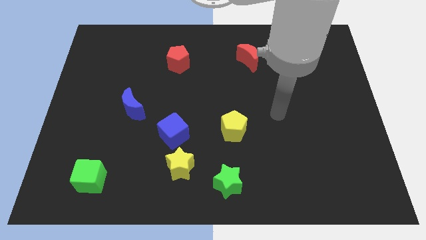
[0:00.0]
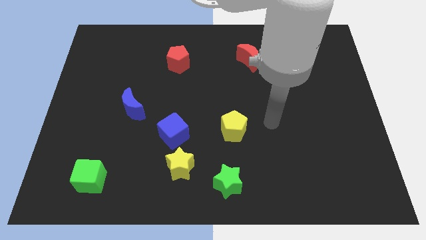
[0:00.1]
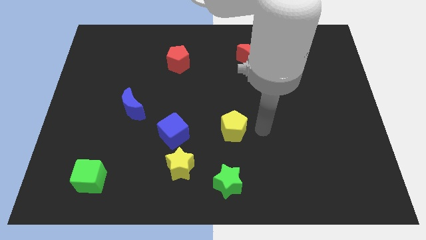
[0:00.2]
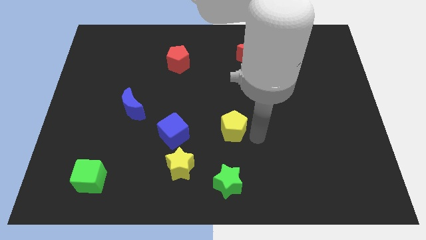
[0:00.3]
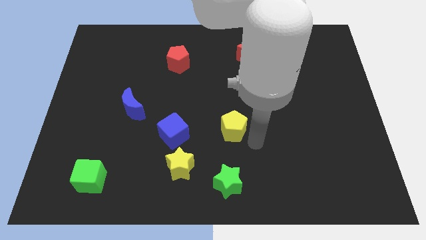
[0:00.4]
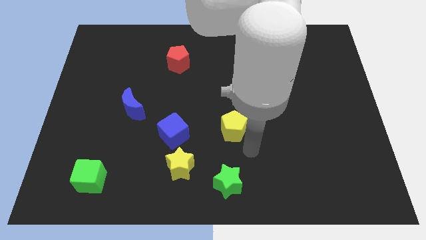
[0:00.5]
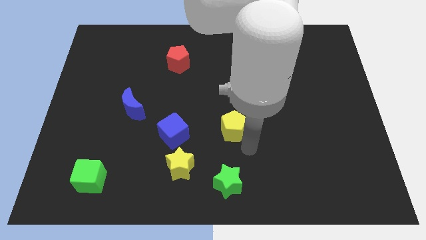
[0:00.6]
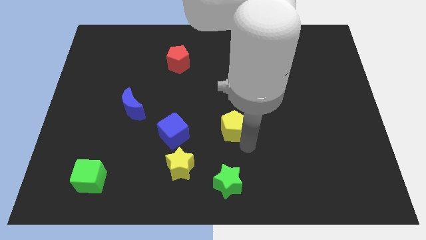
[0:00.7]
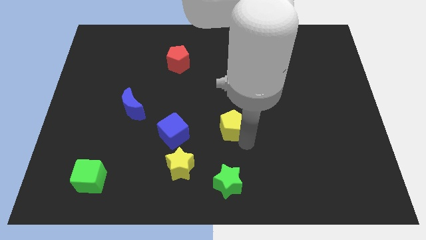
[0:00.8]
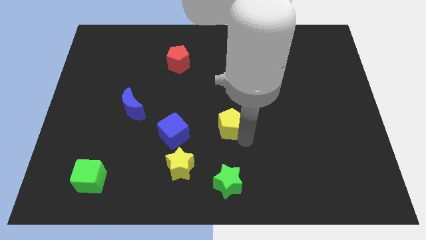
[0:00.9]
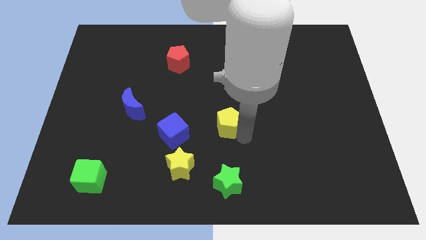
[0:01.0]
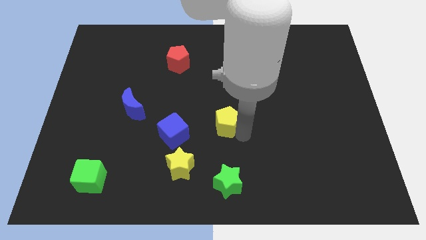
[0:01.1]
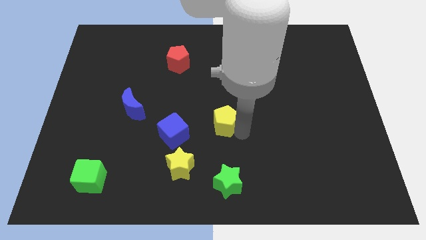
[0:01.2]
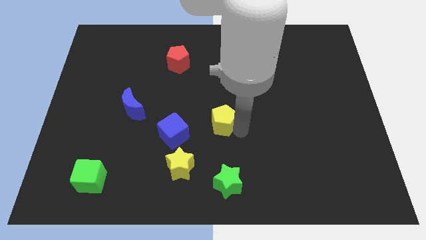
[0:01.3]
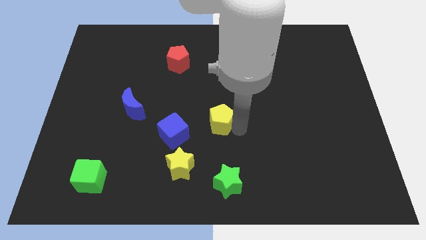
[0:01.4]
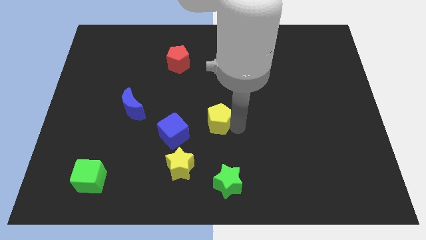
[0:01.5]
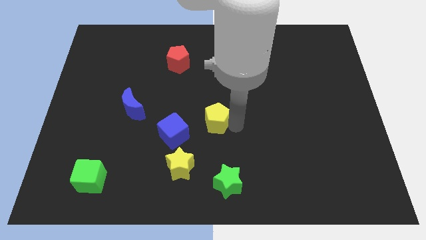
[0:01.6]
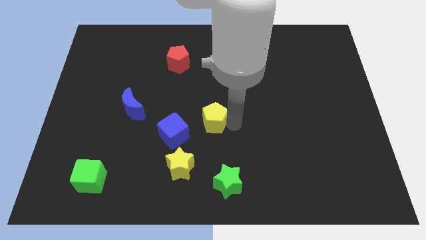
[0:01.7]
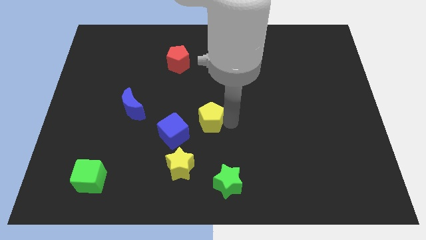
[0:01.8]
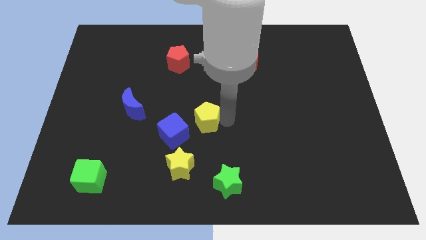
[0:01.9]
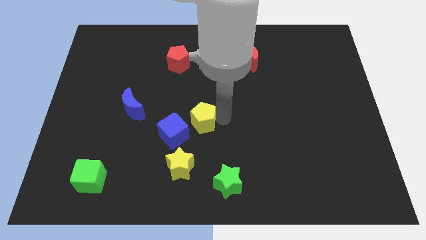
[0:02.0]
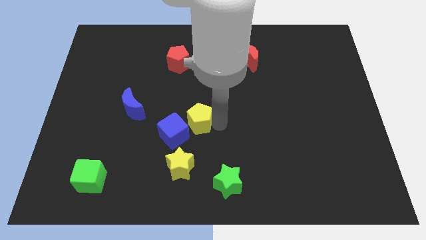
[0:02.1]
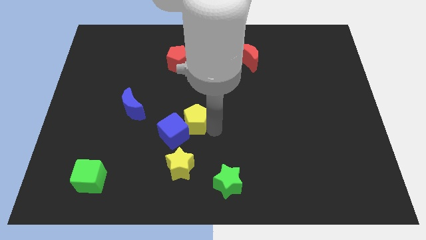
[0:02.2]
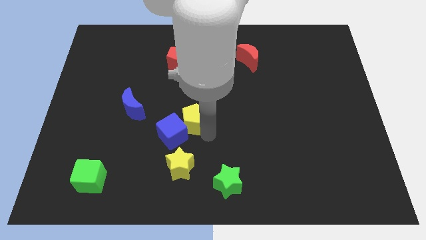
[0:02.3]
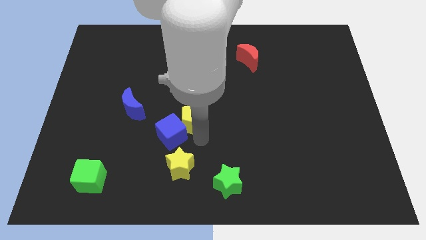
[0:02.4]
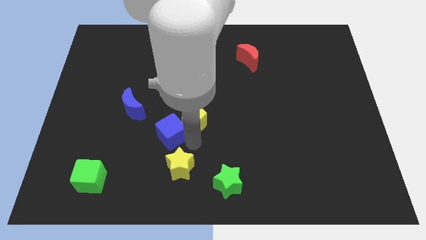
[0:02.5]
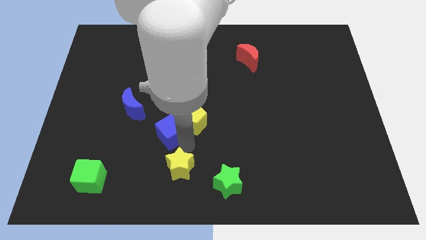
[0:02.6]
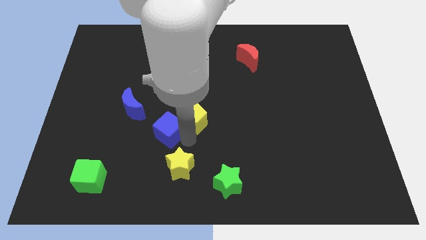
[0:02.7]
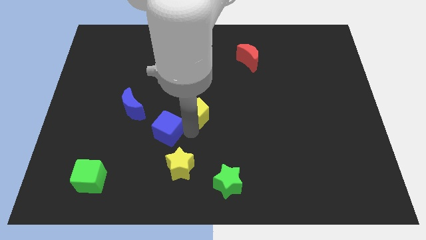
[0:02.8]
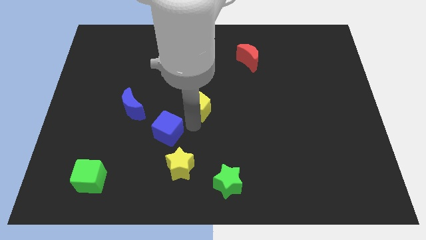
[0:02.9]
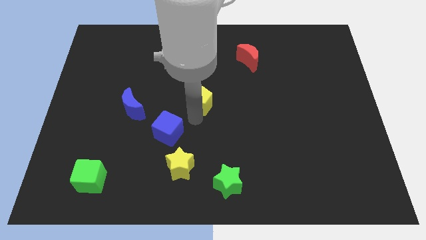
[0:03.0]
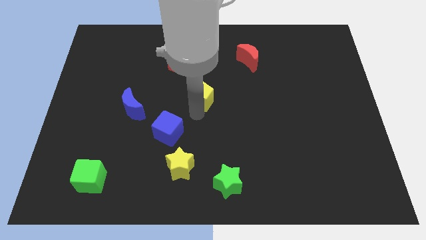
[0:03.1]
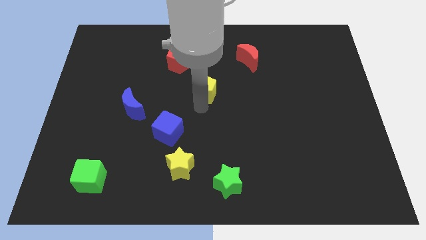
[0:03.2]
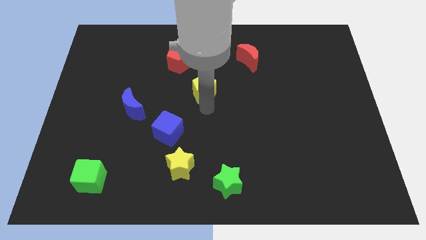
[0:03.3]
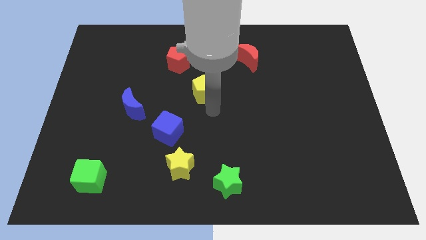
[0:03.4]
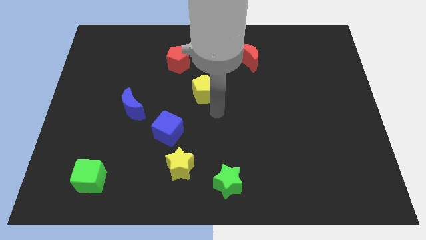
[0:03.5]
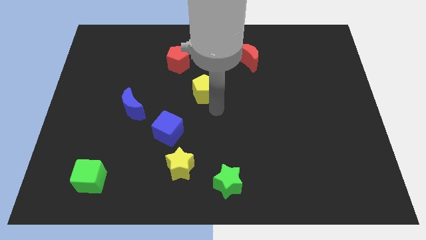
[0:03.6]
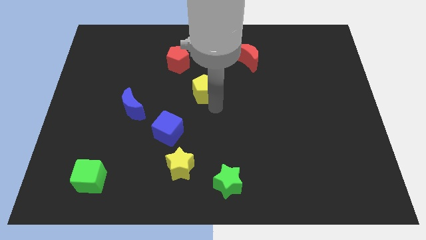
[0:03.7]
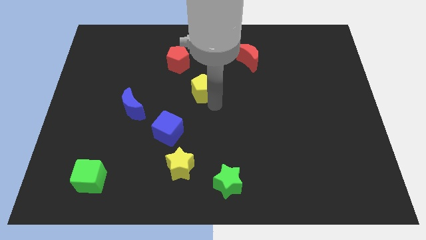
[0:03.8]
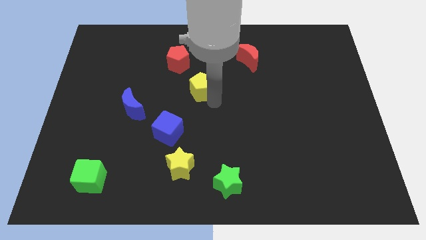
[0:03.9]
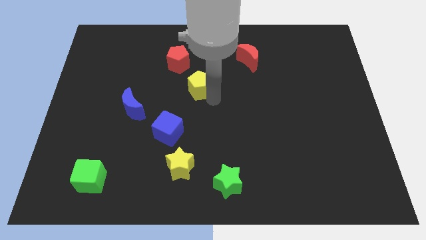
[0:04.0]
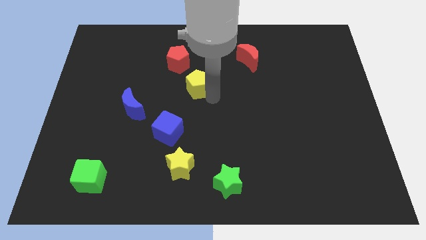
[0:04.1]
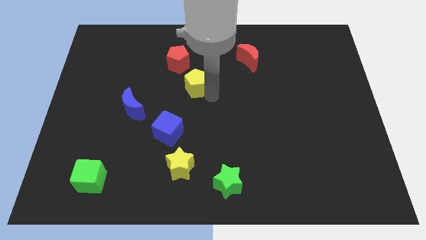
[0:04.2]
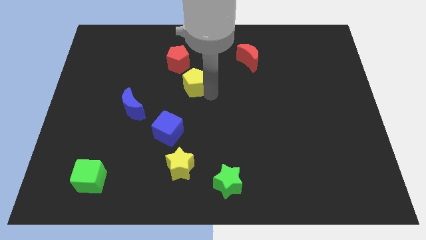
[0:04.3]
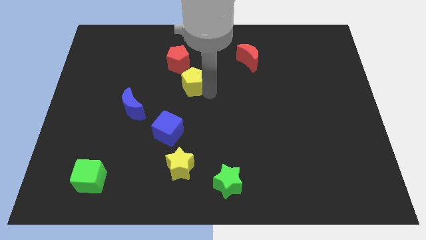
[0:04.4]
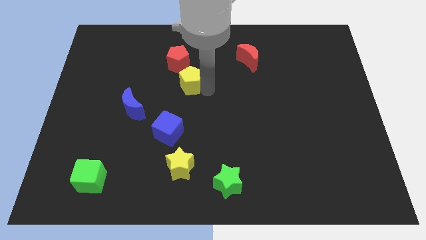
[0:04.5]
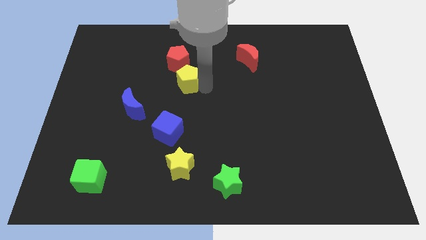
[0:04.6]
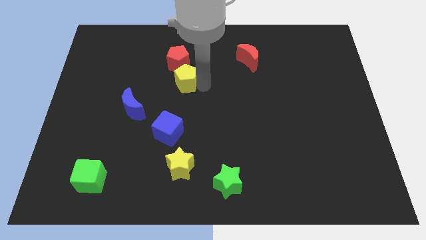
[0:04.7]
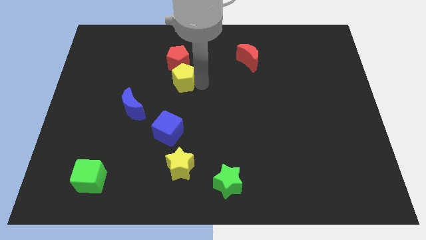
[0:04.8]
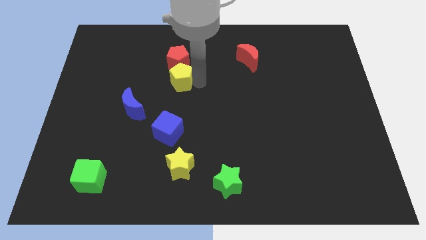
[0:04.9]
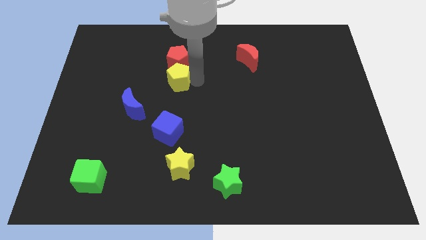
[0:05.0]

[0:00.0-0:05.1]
slide the yellow pentagon to the red pentagon

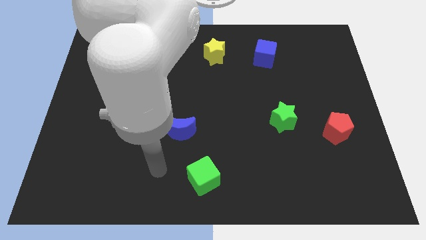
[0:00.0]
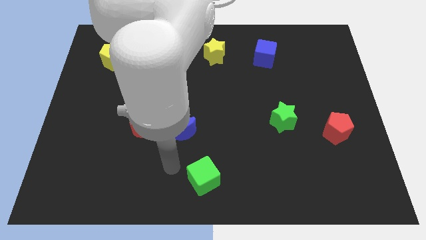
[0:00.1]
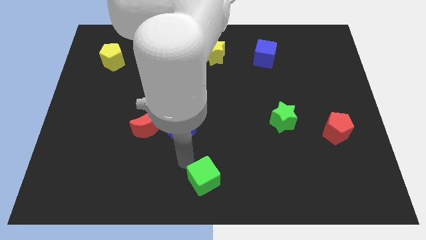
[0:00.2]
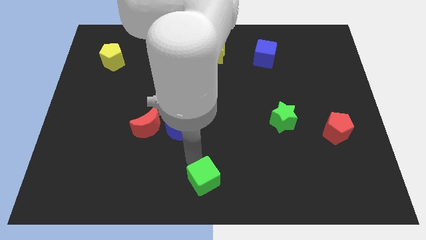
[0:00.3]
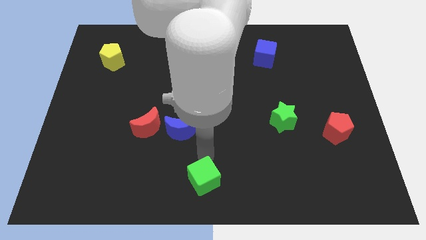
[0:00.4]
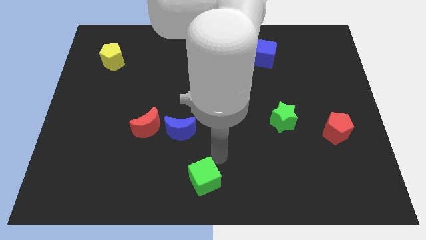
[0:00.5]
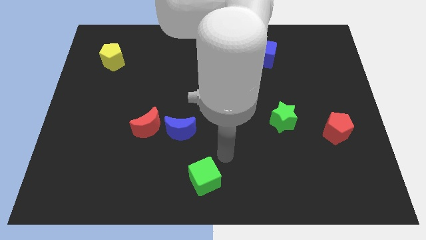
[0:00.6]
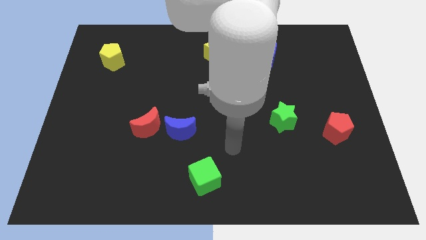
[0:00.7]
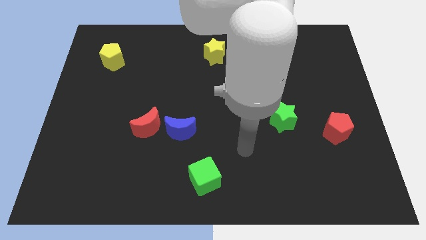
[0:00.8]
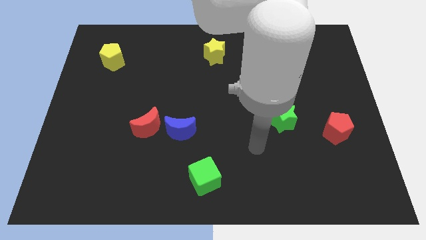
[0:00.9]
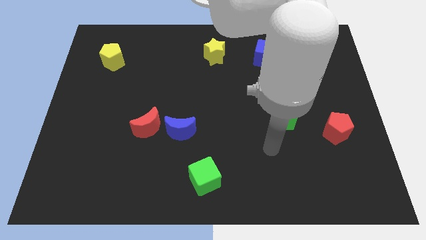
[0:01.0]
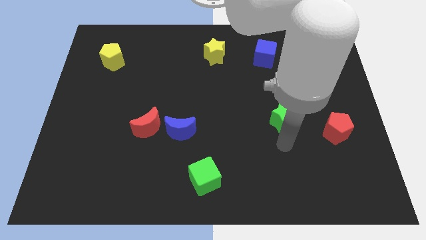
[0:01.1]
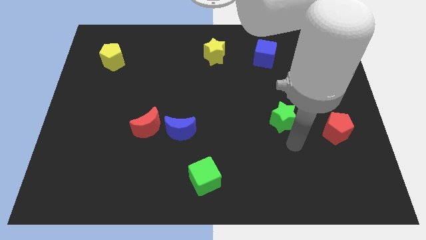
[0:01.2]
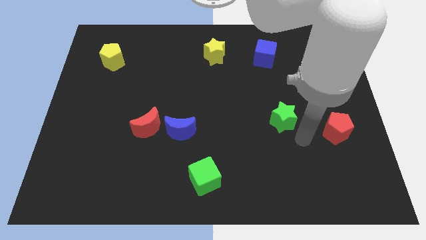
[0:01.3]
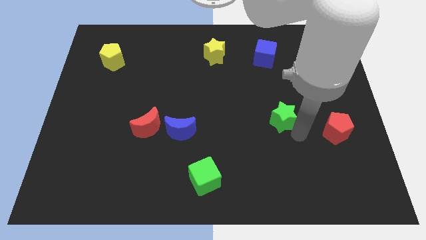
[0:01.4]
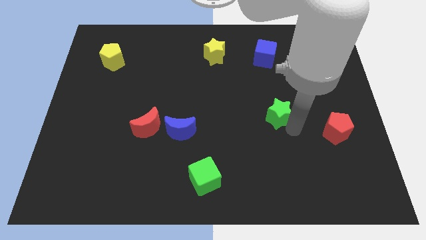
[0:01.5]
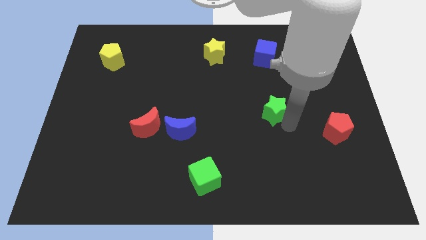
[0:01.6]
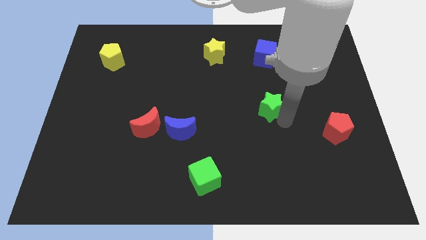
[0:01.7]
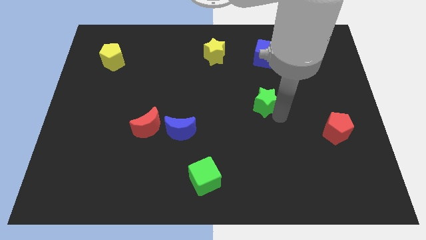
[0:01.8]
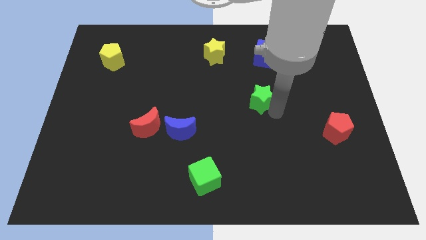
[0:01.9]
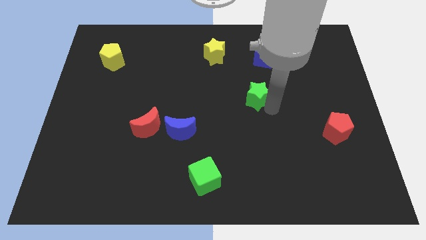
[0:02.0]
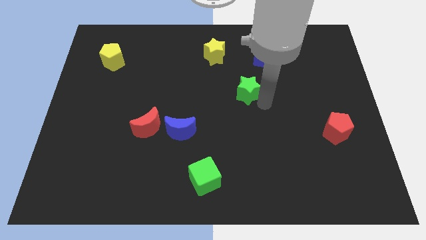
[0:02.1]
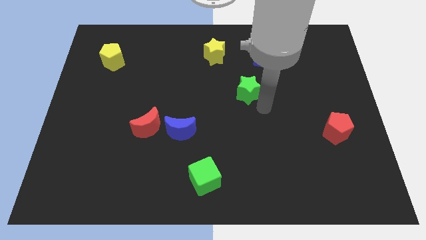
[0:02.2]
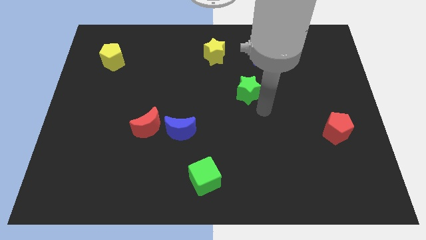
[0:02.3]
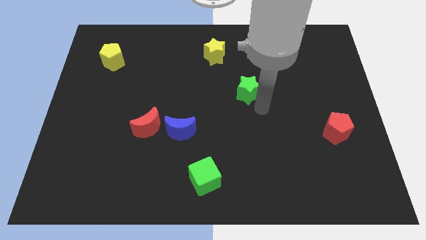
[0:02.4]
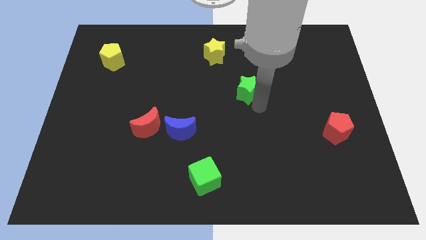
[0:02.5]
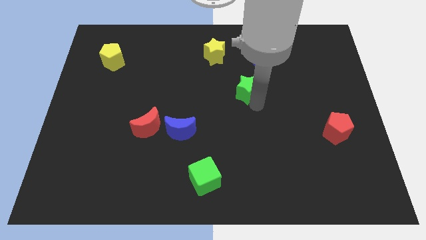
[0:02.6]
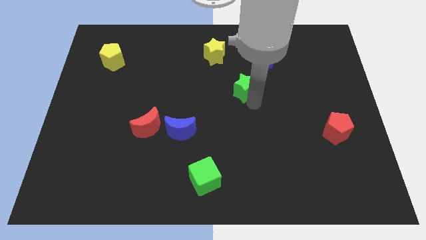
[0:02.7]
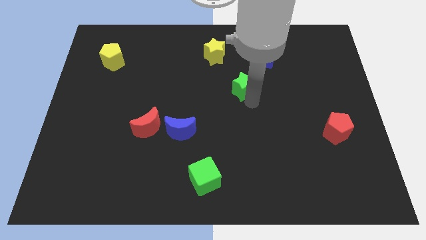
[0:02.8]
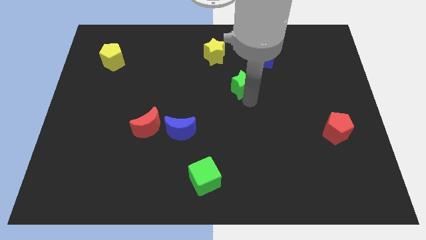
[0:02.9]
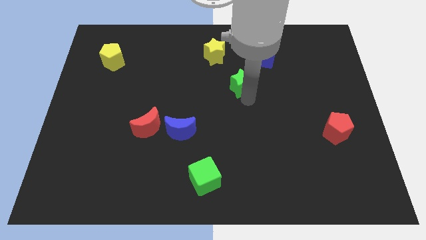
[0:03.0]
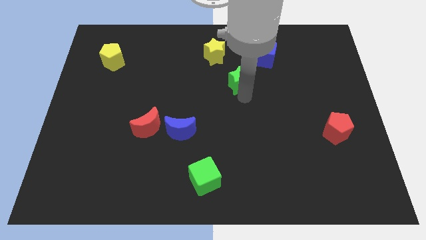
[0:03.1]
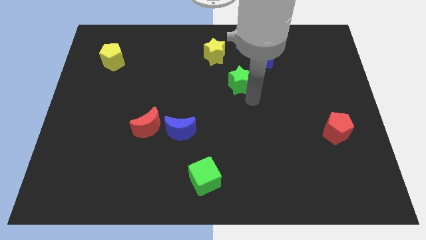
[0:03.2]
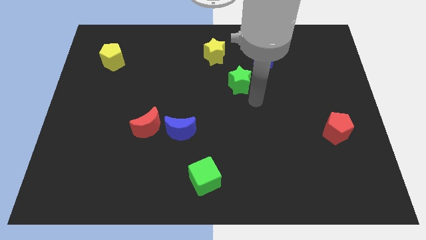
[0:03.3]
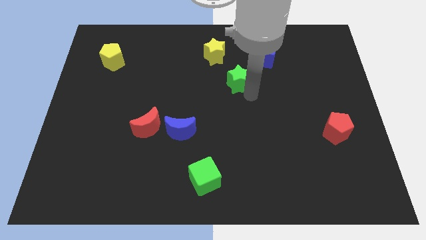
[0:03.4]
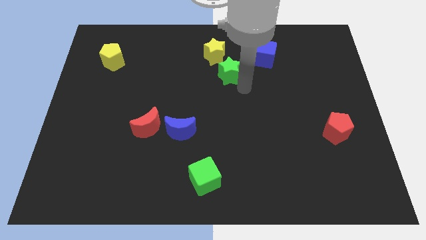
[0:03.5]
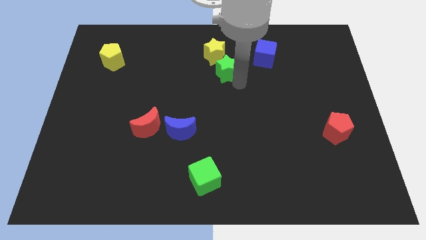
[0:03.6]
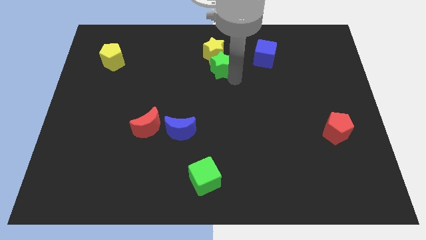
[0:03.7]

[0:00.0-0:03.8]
slide the green star to the yellow star
